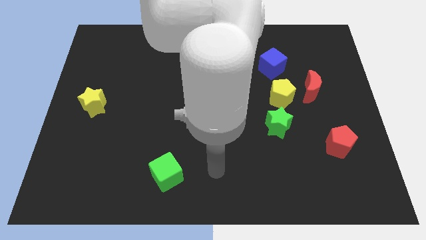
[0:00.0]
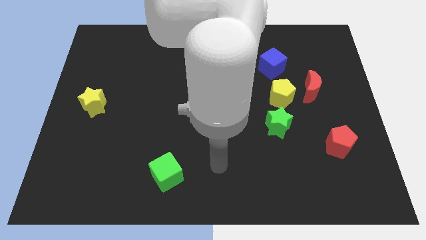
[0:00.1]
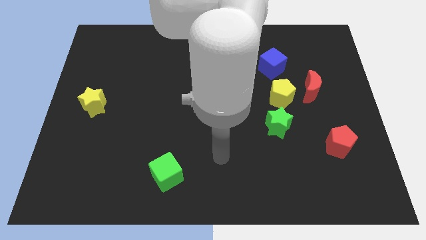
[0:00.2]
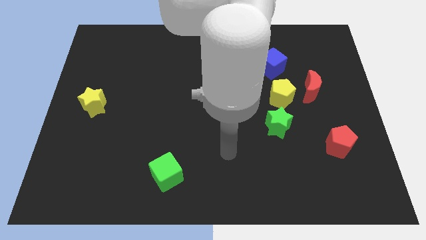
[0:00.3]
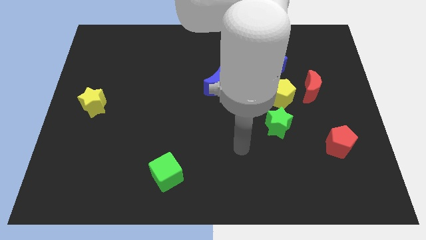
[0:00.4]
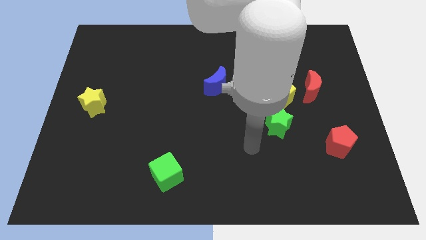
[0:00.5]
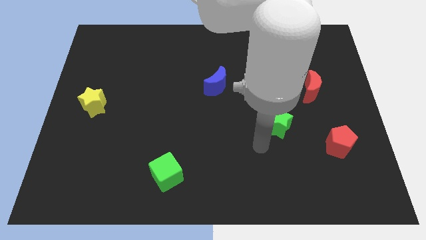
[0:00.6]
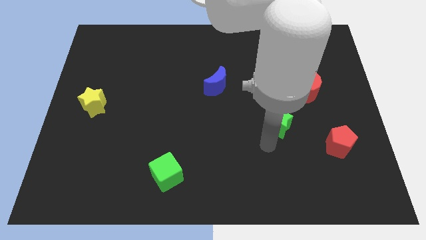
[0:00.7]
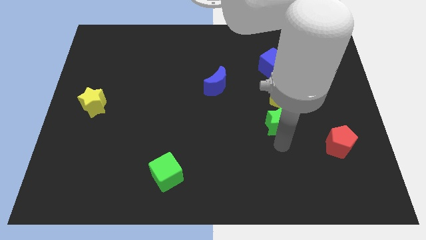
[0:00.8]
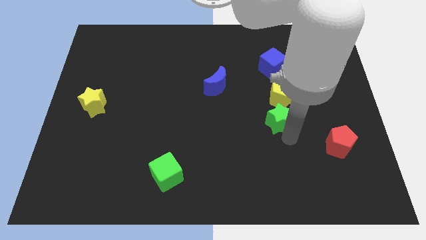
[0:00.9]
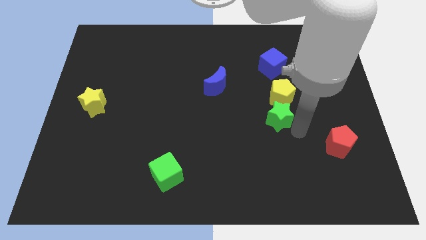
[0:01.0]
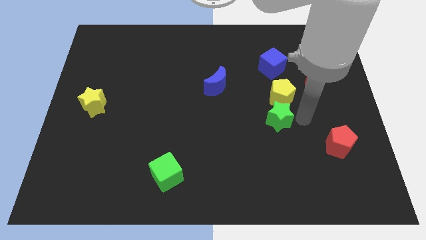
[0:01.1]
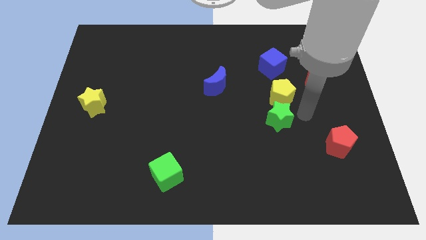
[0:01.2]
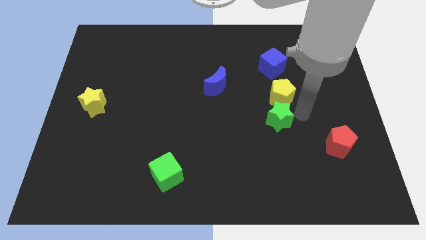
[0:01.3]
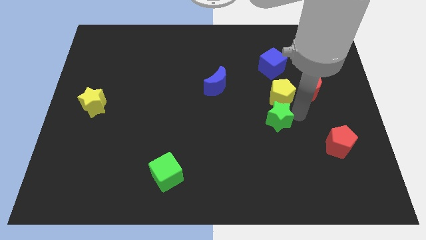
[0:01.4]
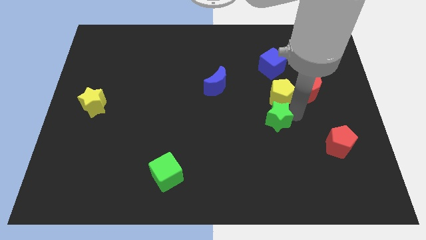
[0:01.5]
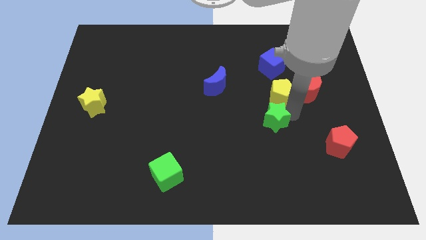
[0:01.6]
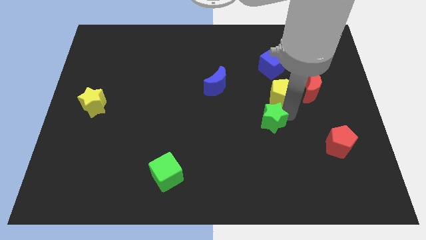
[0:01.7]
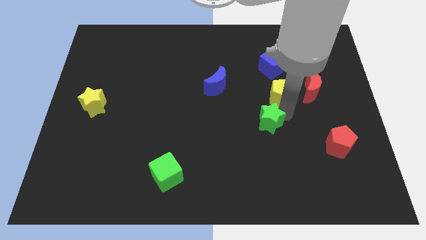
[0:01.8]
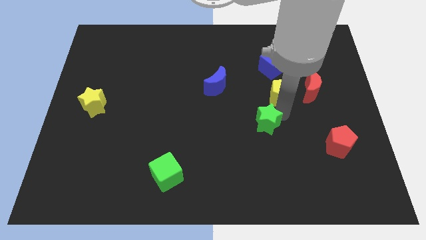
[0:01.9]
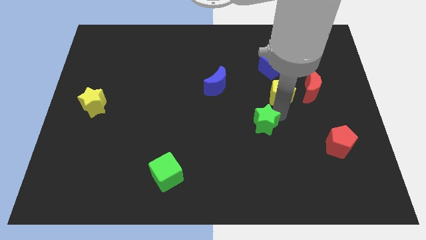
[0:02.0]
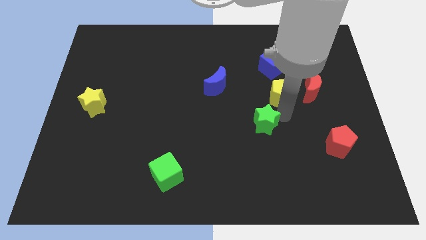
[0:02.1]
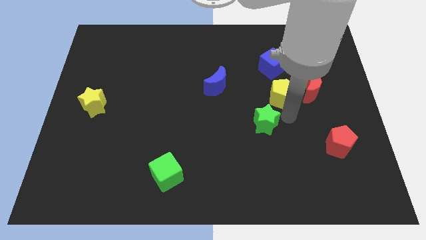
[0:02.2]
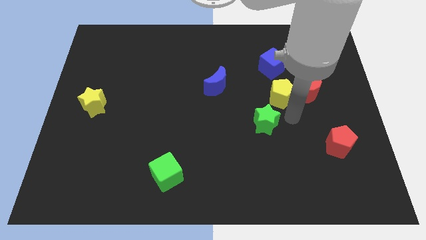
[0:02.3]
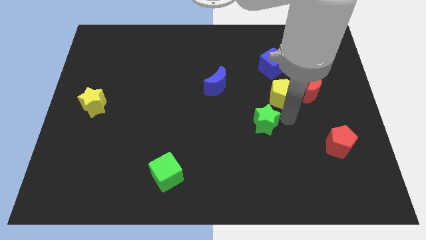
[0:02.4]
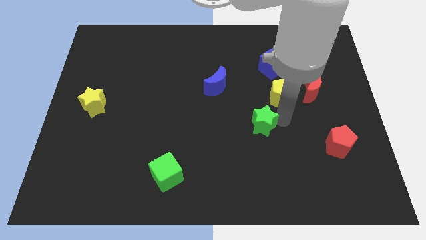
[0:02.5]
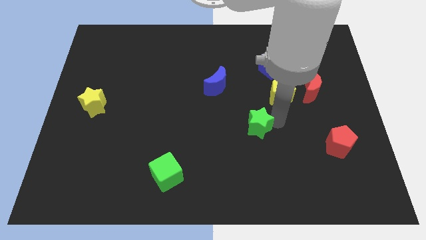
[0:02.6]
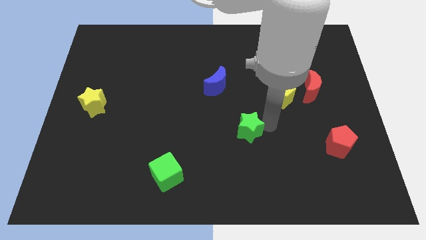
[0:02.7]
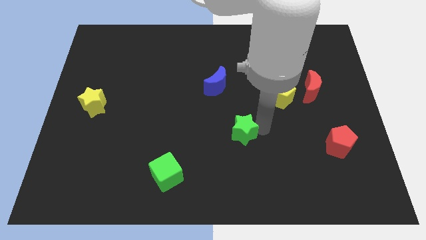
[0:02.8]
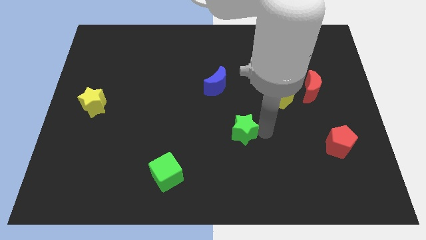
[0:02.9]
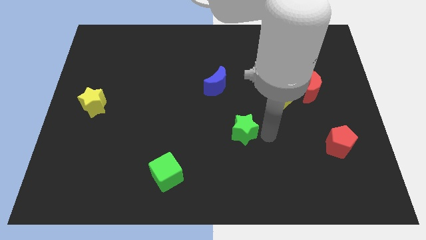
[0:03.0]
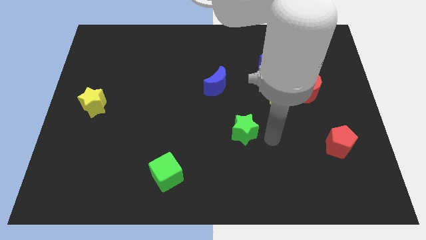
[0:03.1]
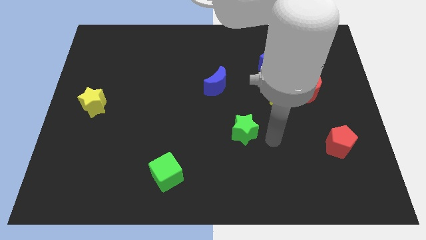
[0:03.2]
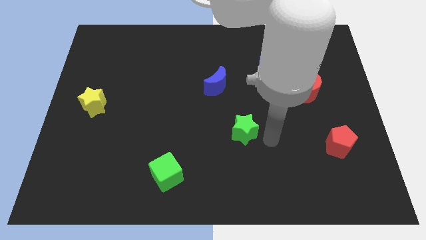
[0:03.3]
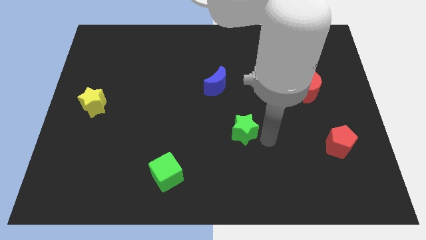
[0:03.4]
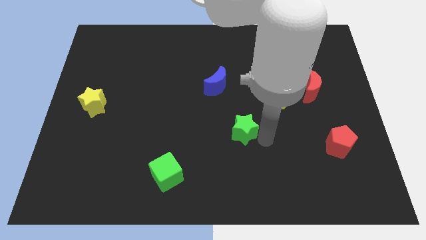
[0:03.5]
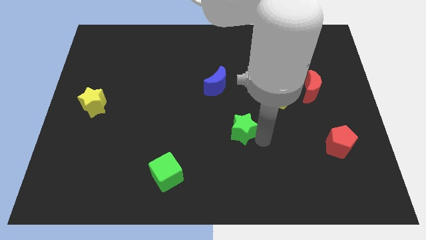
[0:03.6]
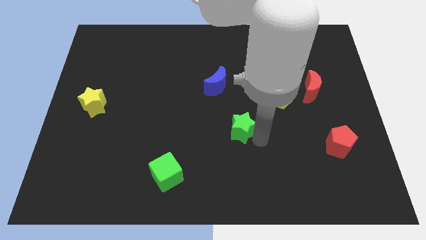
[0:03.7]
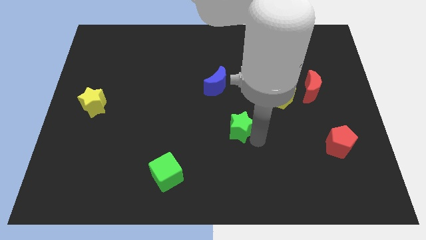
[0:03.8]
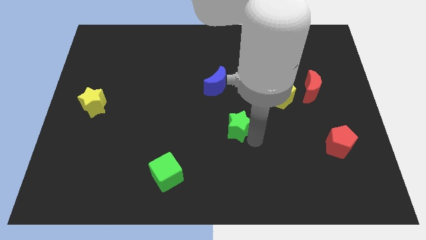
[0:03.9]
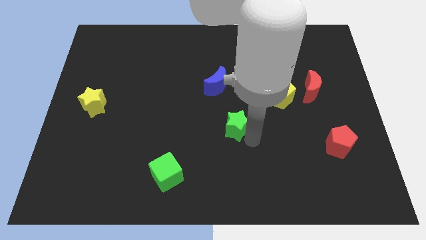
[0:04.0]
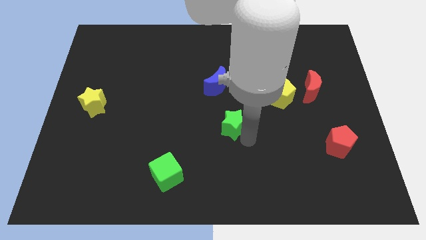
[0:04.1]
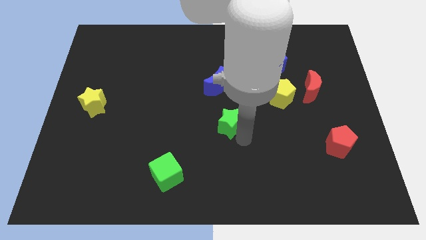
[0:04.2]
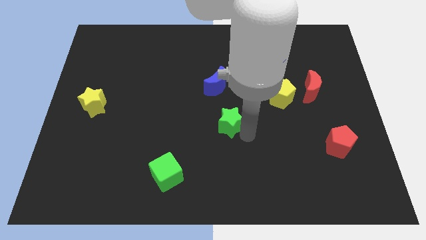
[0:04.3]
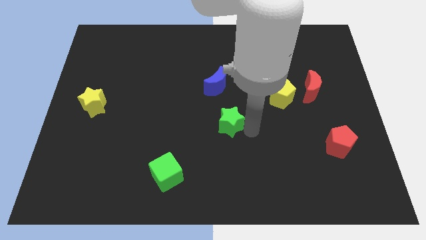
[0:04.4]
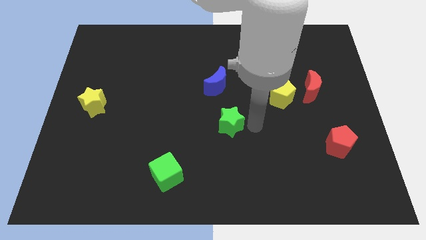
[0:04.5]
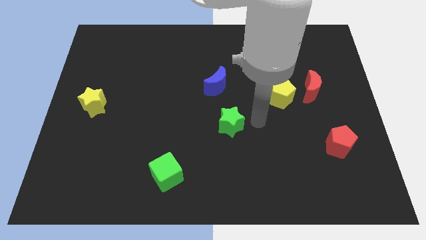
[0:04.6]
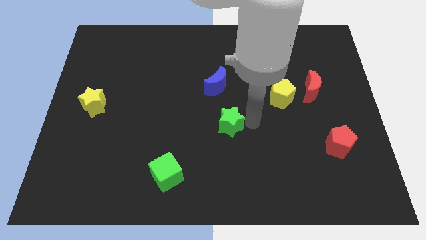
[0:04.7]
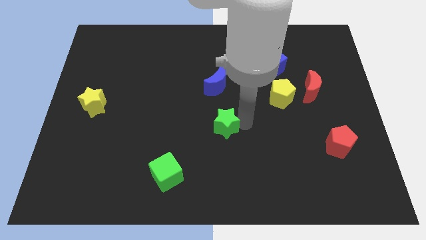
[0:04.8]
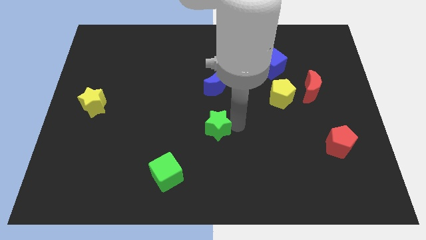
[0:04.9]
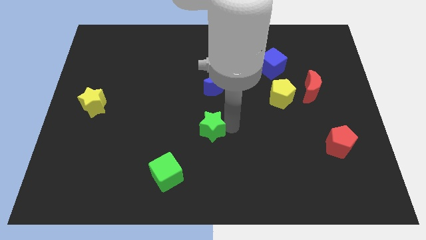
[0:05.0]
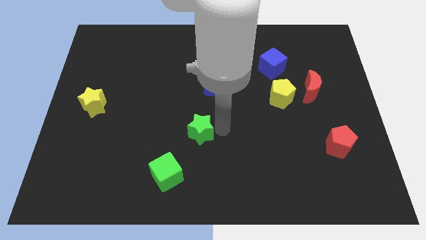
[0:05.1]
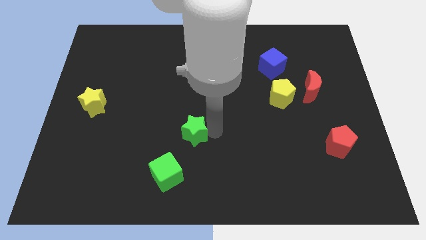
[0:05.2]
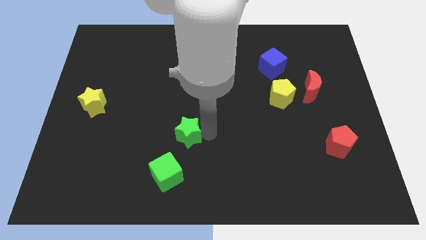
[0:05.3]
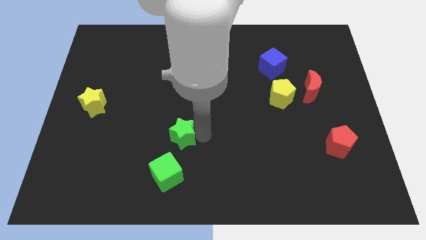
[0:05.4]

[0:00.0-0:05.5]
slide the green star left

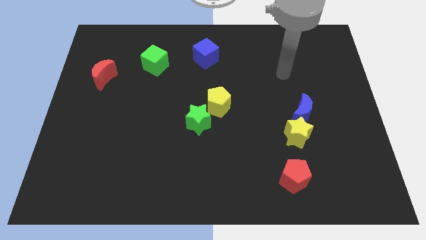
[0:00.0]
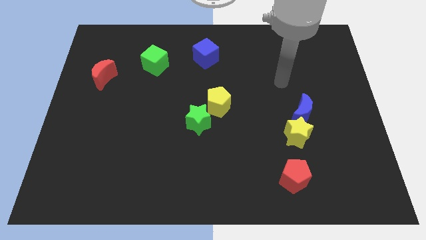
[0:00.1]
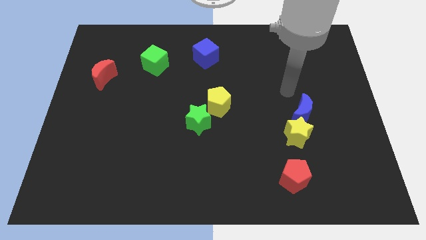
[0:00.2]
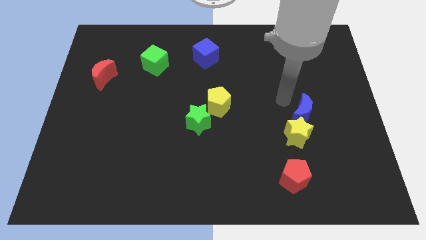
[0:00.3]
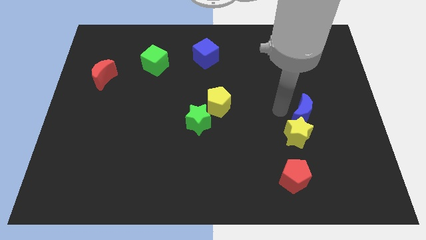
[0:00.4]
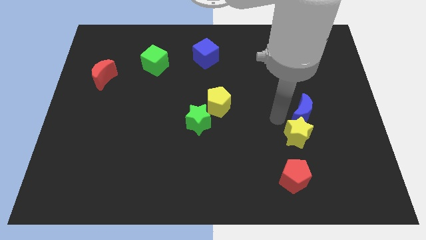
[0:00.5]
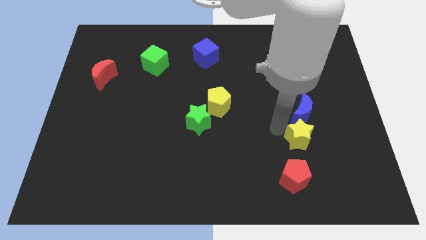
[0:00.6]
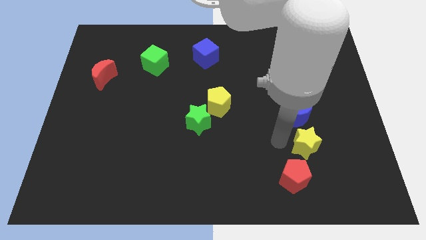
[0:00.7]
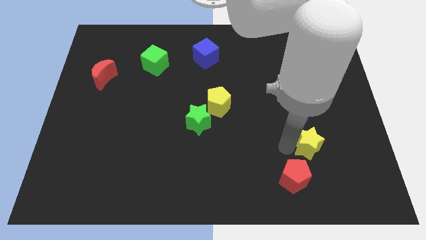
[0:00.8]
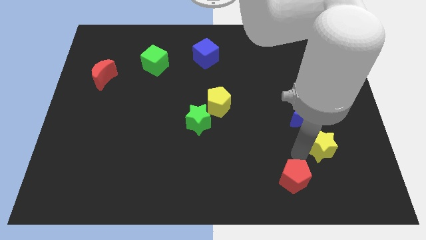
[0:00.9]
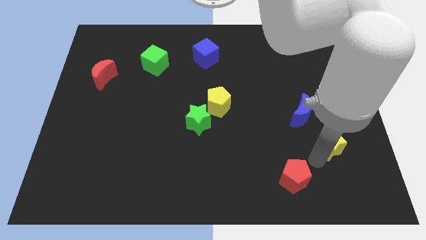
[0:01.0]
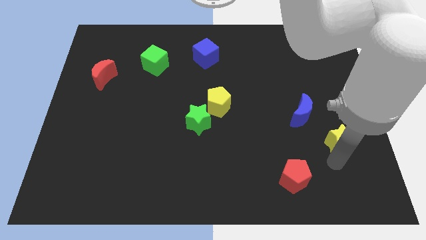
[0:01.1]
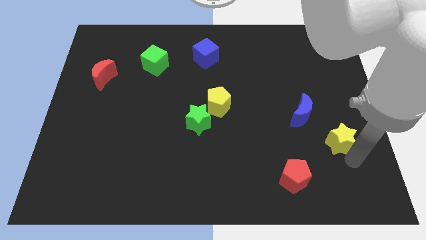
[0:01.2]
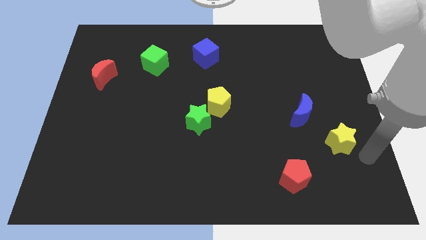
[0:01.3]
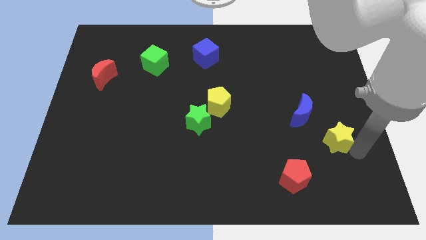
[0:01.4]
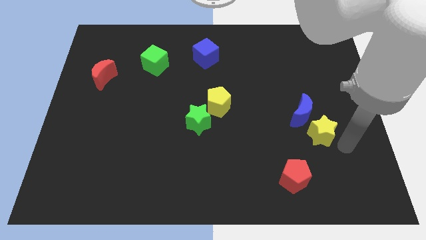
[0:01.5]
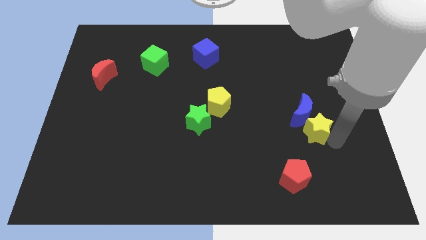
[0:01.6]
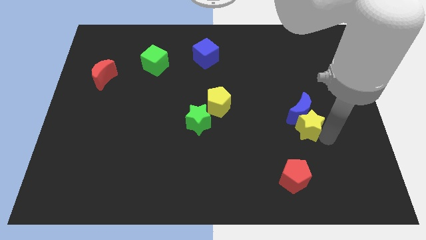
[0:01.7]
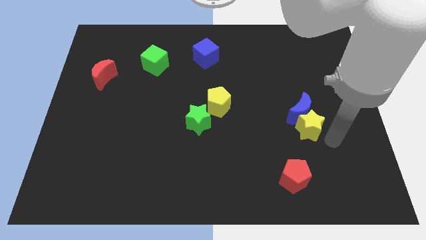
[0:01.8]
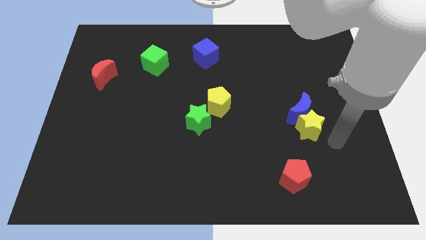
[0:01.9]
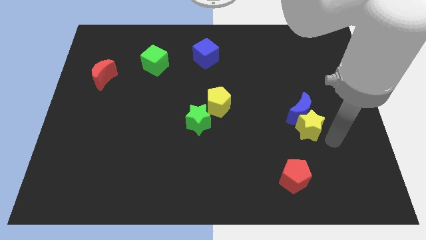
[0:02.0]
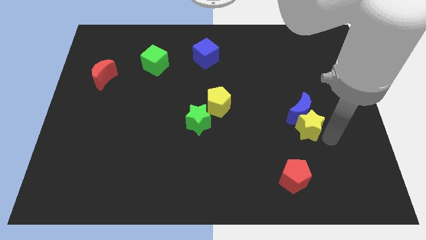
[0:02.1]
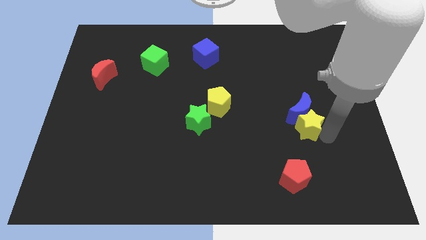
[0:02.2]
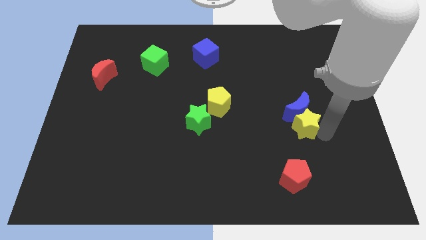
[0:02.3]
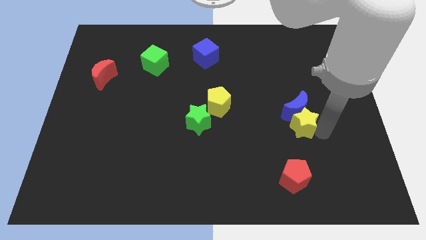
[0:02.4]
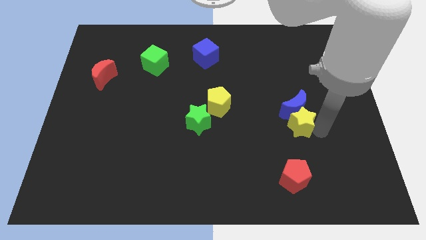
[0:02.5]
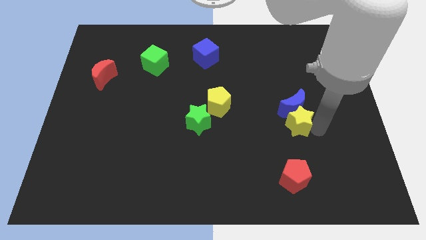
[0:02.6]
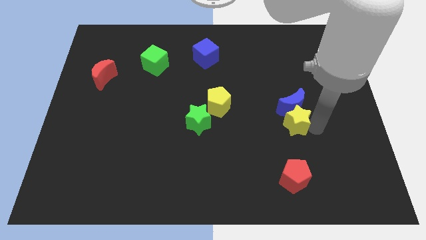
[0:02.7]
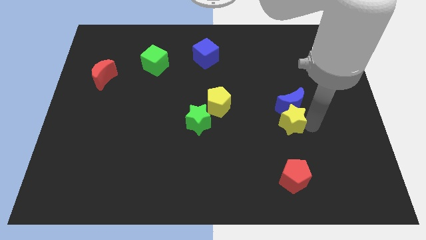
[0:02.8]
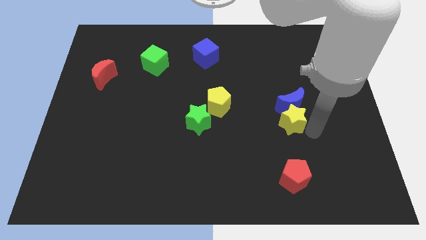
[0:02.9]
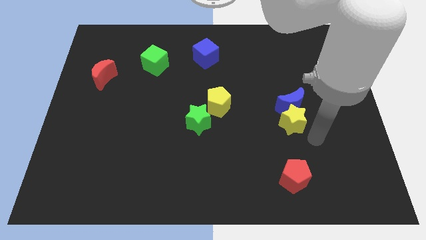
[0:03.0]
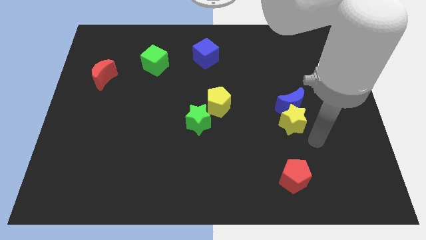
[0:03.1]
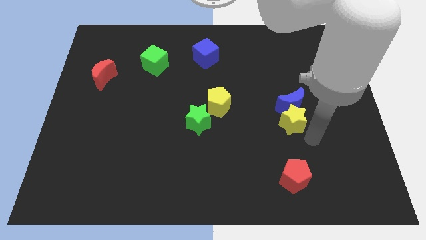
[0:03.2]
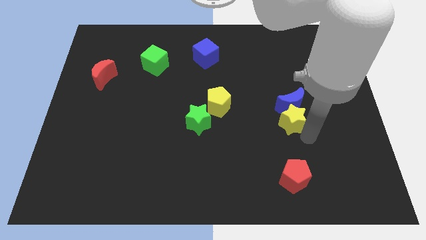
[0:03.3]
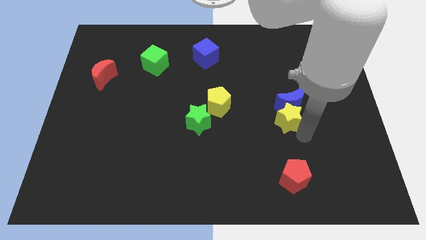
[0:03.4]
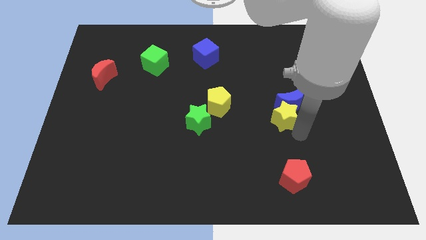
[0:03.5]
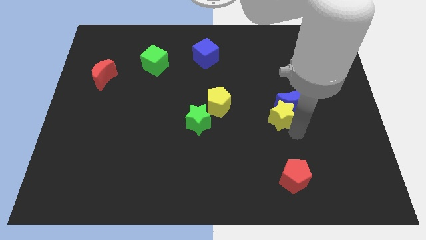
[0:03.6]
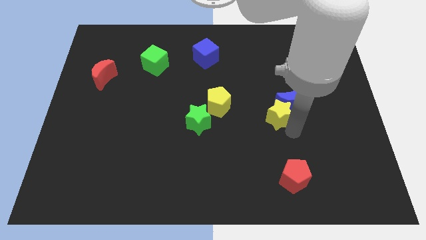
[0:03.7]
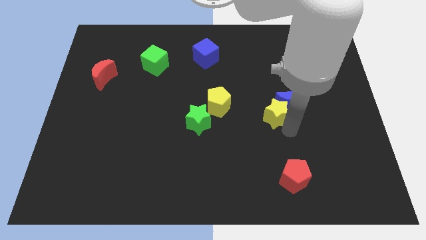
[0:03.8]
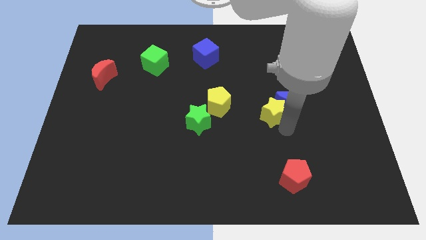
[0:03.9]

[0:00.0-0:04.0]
move the yellow star up and then to the left a little bit
